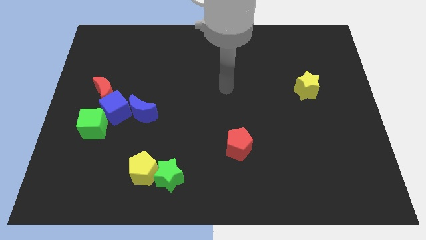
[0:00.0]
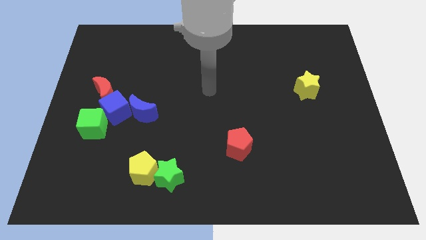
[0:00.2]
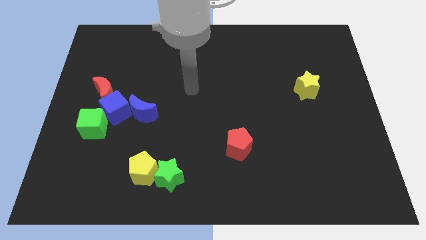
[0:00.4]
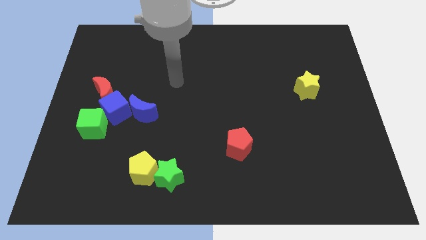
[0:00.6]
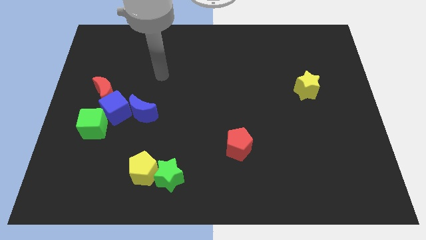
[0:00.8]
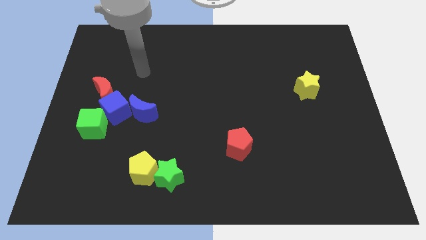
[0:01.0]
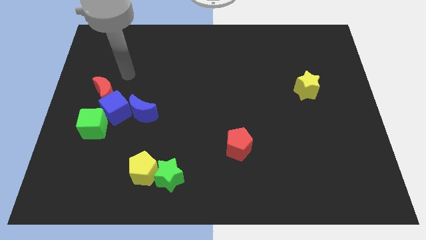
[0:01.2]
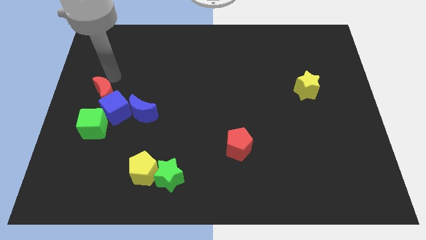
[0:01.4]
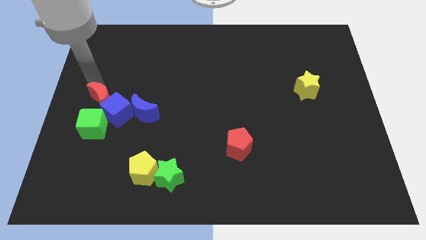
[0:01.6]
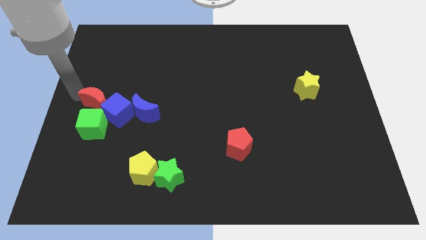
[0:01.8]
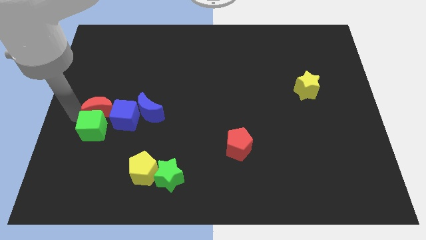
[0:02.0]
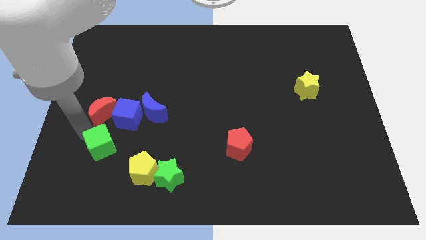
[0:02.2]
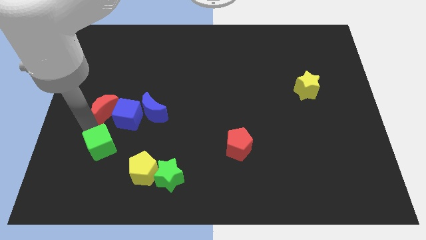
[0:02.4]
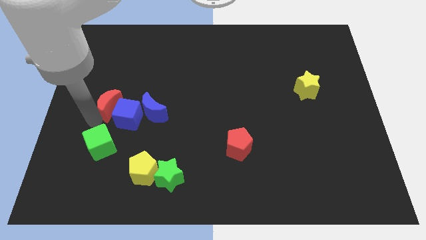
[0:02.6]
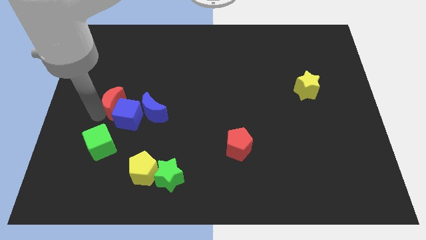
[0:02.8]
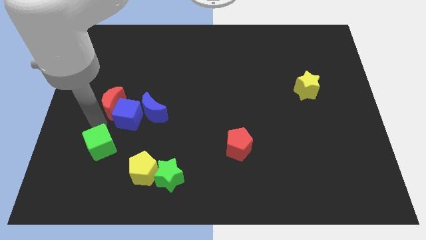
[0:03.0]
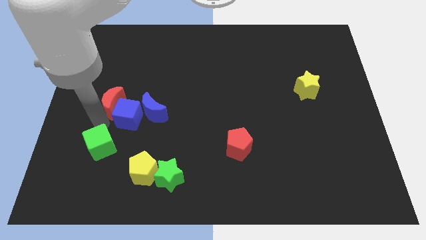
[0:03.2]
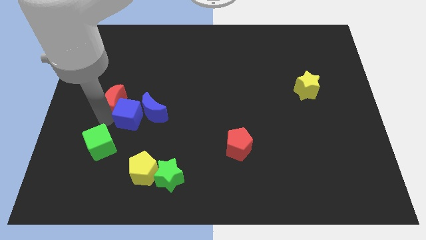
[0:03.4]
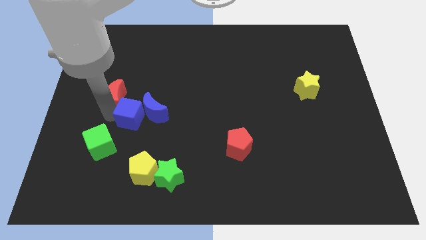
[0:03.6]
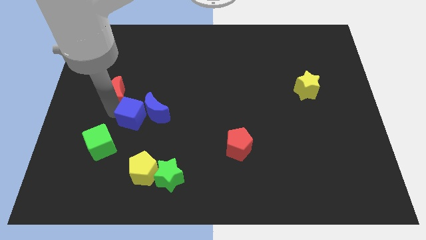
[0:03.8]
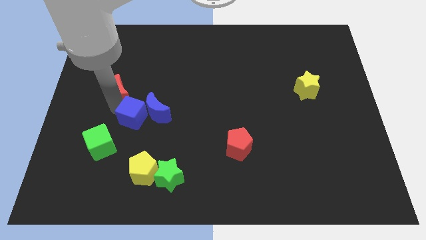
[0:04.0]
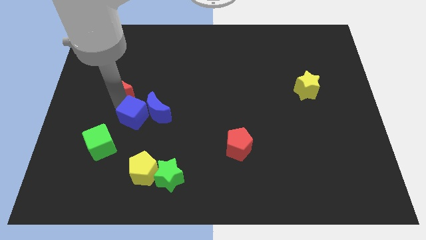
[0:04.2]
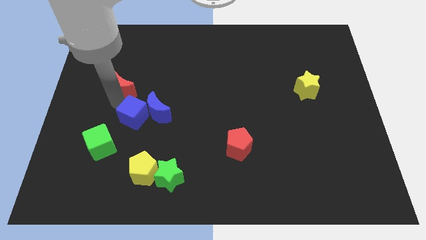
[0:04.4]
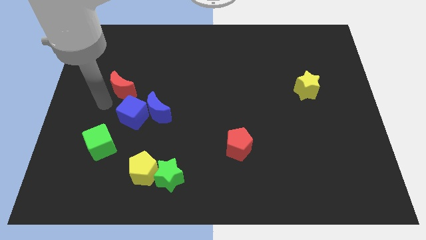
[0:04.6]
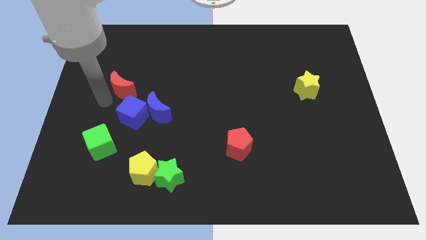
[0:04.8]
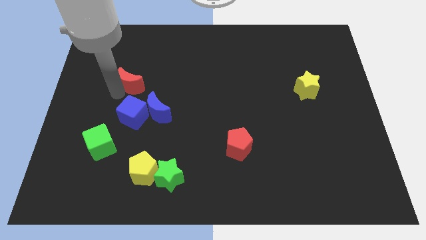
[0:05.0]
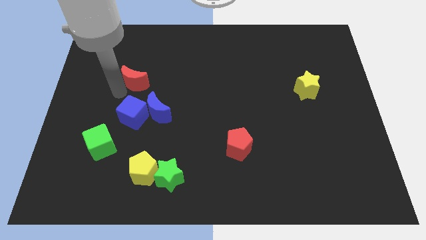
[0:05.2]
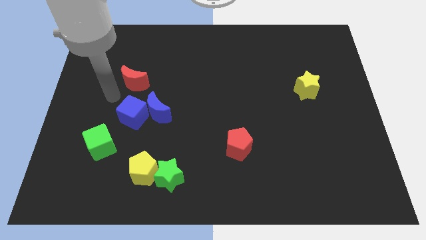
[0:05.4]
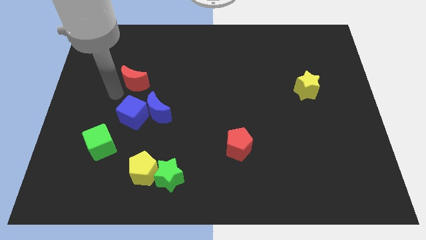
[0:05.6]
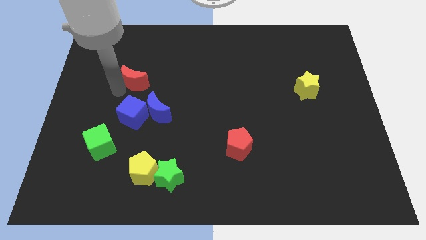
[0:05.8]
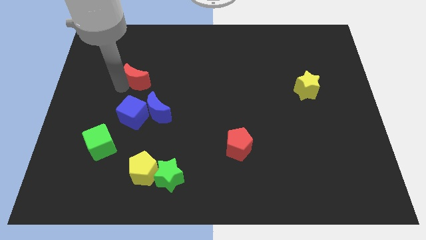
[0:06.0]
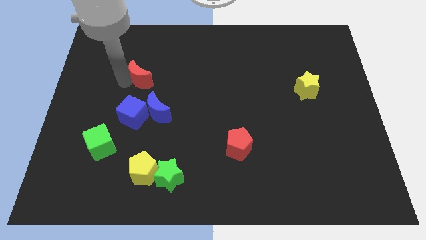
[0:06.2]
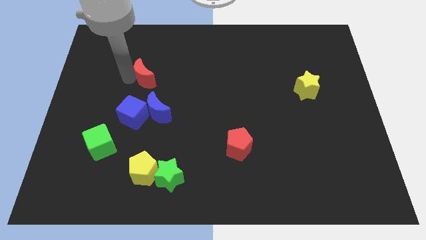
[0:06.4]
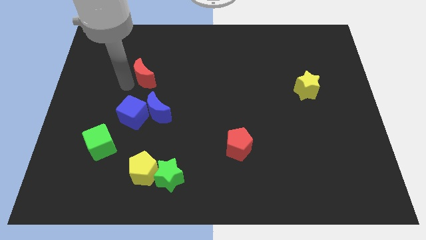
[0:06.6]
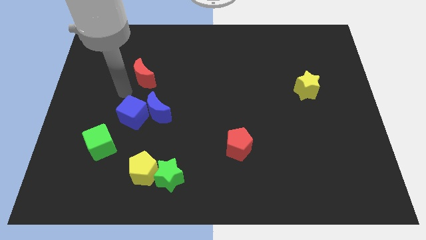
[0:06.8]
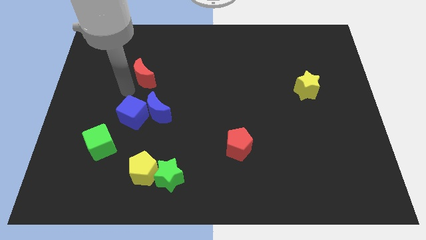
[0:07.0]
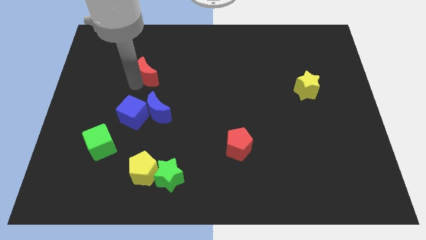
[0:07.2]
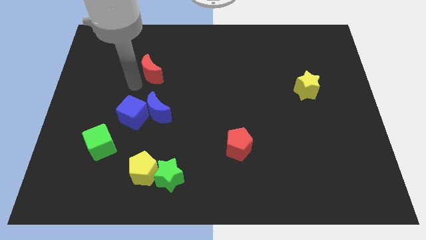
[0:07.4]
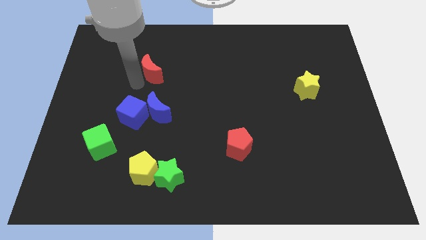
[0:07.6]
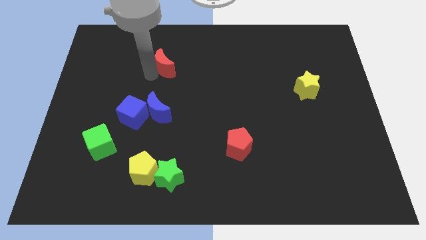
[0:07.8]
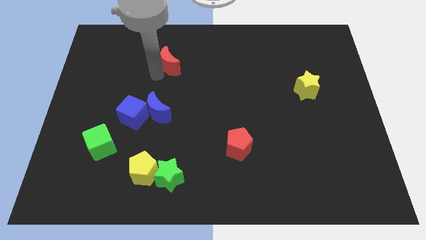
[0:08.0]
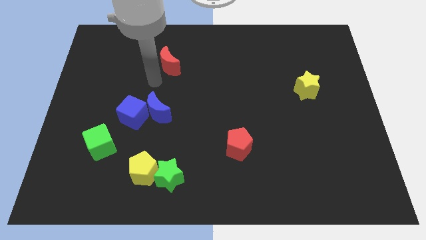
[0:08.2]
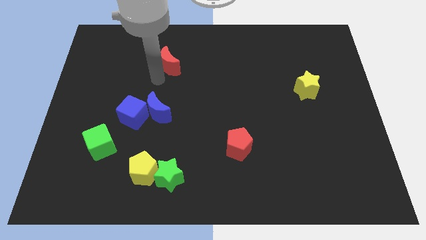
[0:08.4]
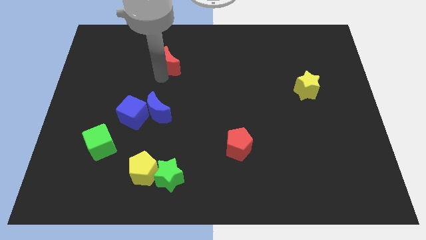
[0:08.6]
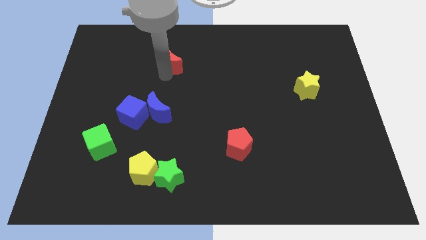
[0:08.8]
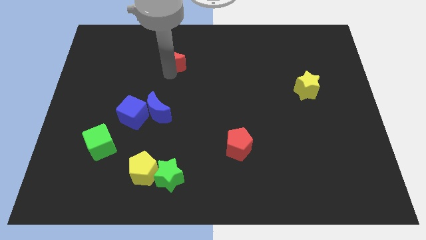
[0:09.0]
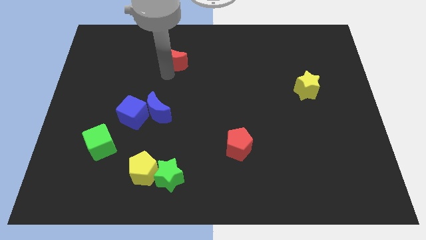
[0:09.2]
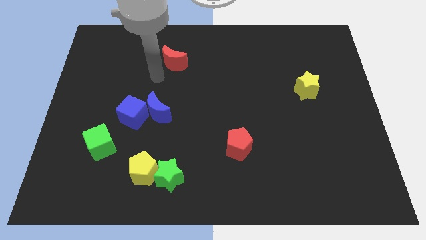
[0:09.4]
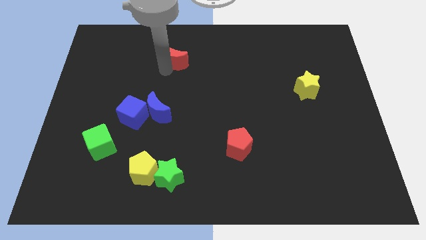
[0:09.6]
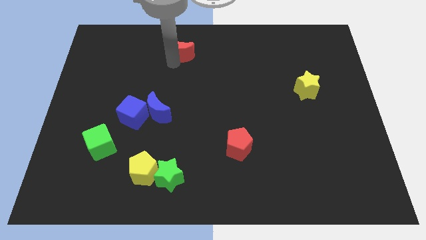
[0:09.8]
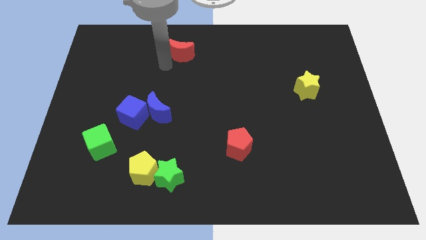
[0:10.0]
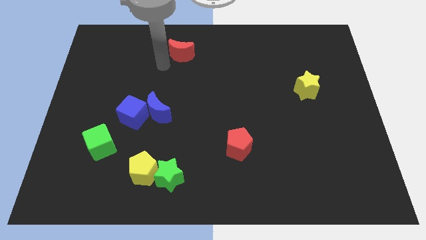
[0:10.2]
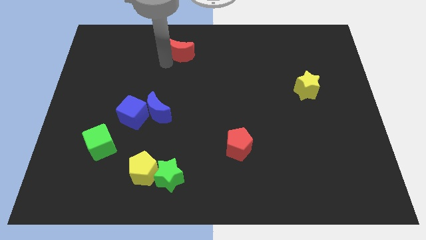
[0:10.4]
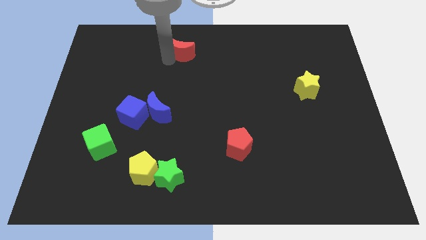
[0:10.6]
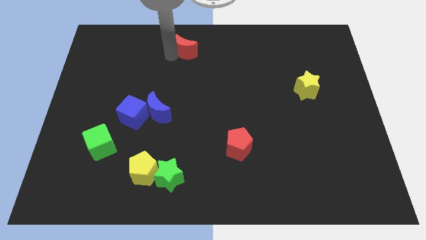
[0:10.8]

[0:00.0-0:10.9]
move the red moon to the top side

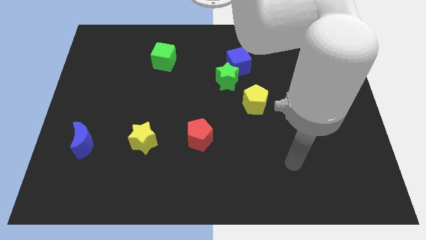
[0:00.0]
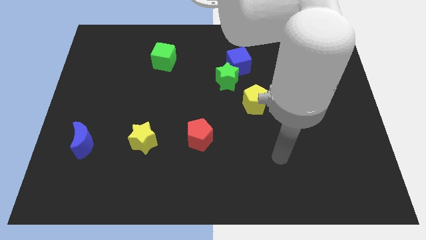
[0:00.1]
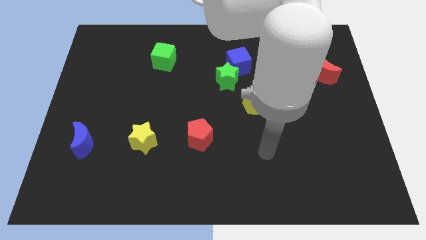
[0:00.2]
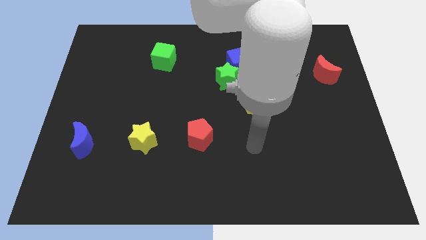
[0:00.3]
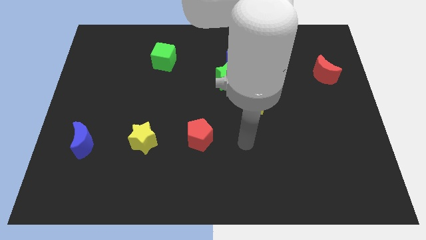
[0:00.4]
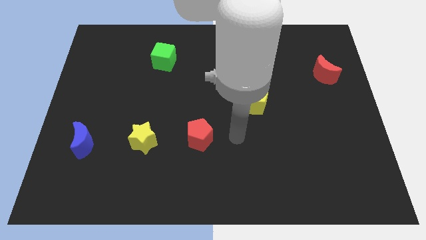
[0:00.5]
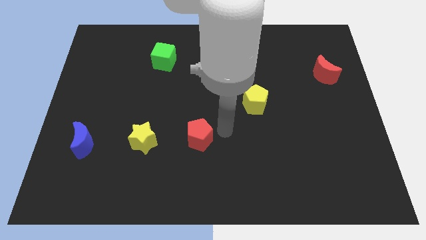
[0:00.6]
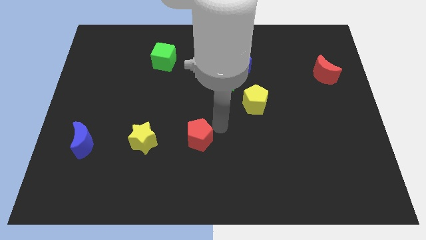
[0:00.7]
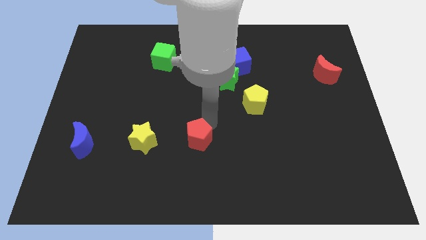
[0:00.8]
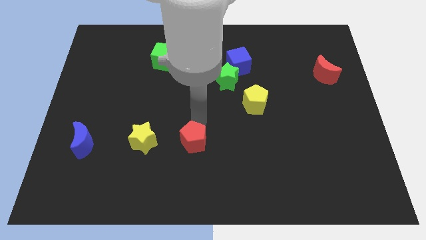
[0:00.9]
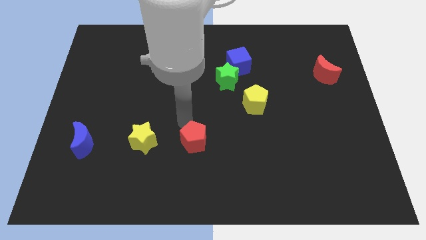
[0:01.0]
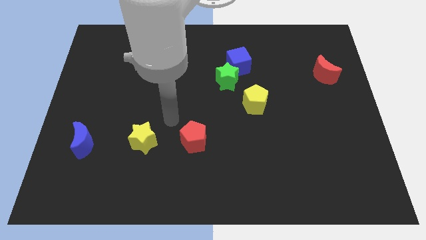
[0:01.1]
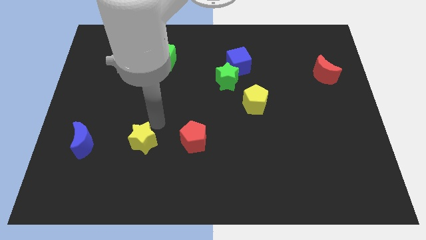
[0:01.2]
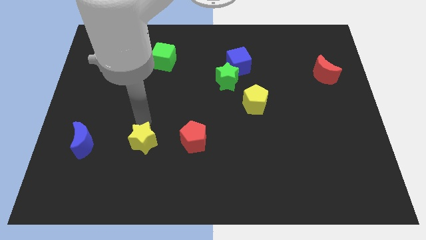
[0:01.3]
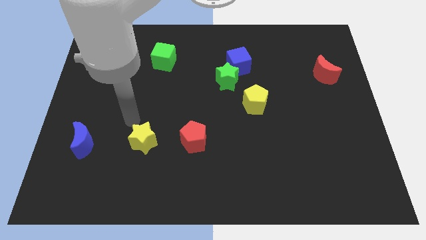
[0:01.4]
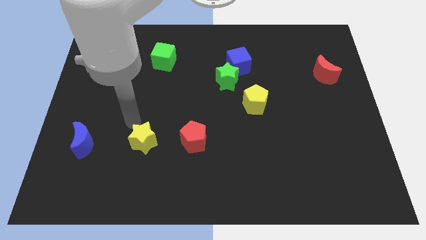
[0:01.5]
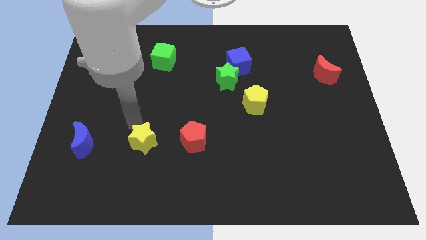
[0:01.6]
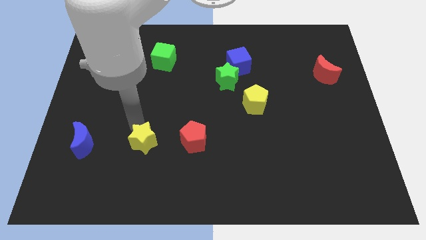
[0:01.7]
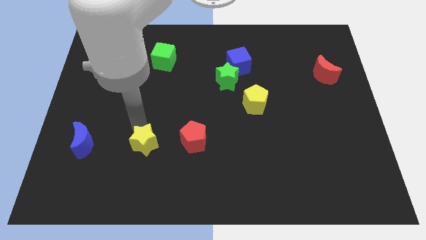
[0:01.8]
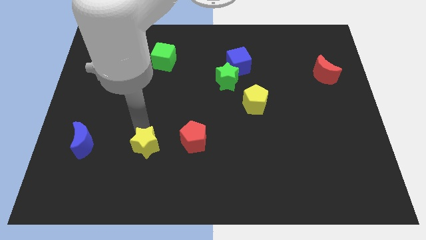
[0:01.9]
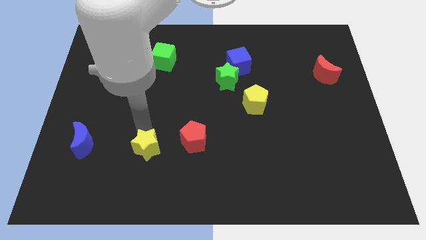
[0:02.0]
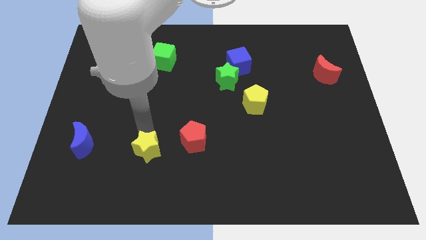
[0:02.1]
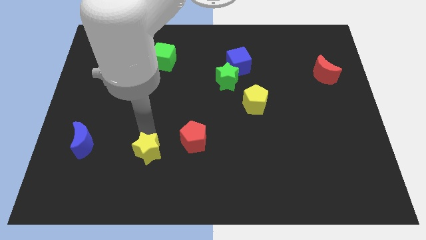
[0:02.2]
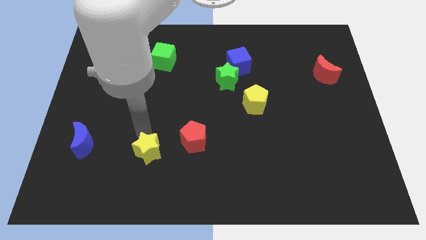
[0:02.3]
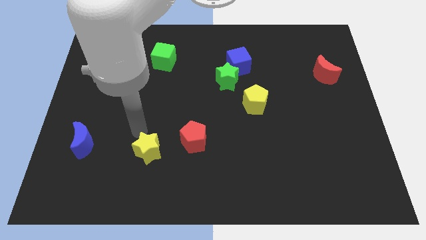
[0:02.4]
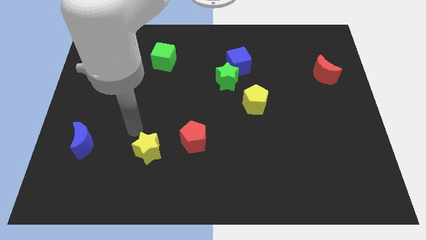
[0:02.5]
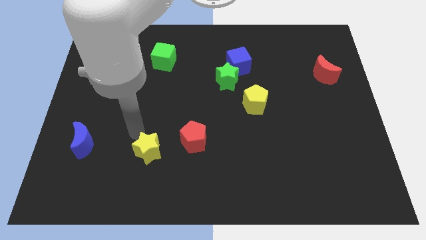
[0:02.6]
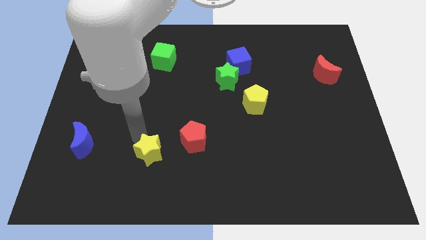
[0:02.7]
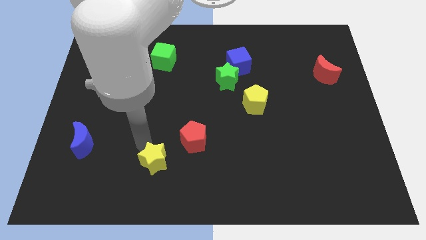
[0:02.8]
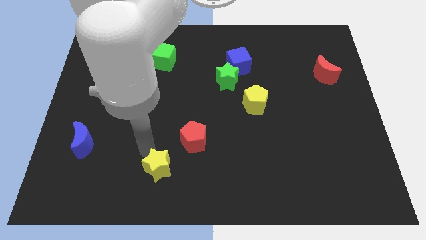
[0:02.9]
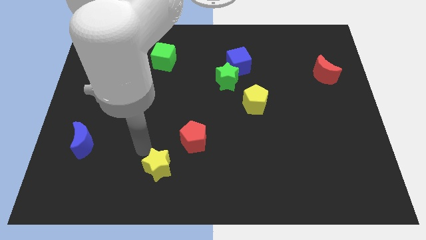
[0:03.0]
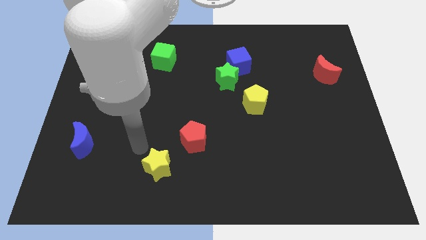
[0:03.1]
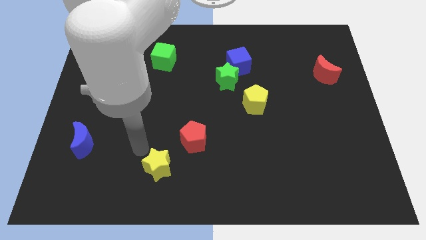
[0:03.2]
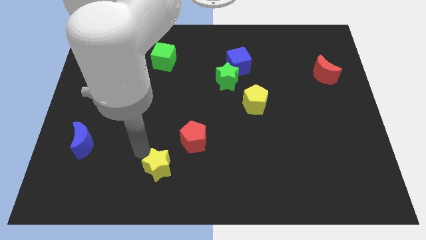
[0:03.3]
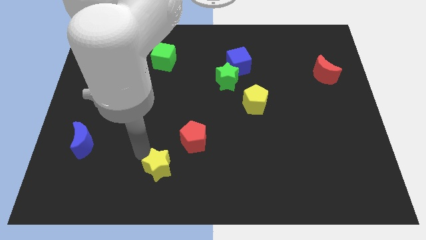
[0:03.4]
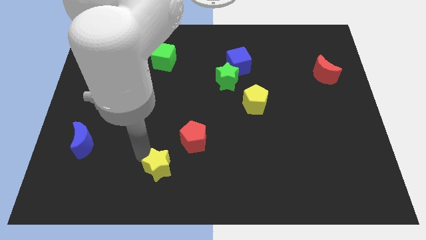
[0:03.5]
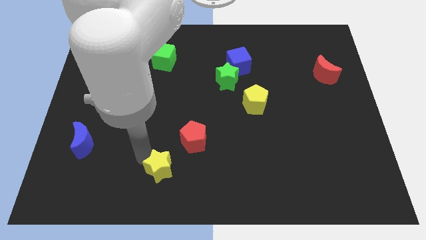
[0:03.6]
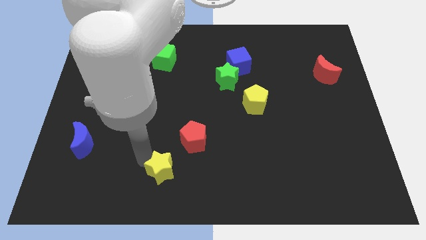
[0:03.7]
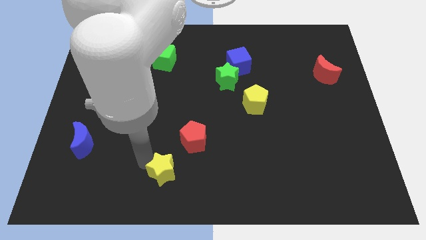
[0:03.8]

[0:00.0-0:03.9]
push the yellow star to the bottom
